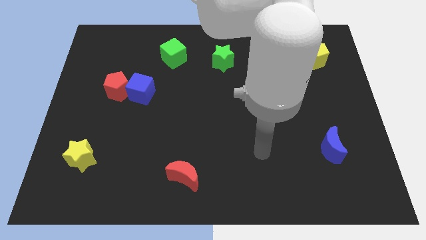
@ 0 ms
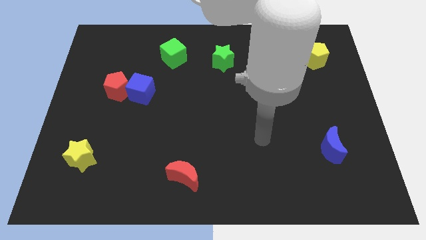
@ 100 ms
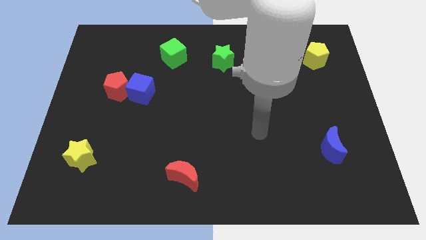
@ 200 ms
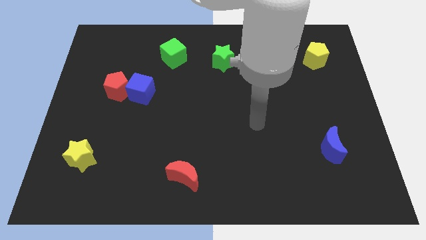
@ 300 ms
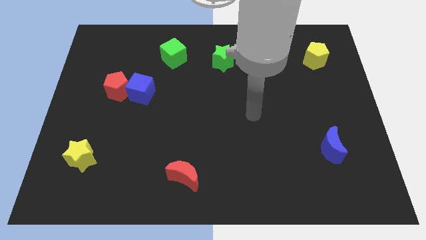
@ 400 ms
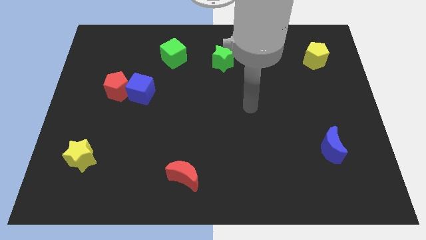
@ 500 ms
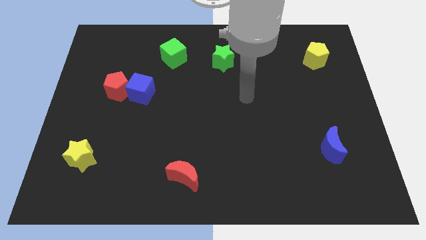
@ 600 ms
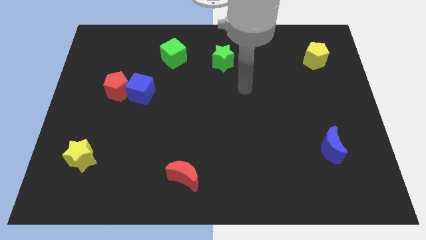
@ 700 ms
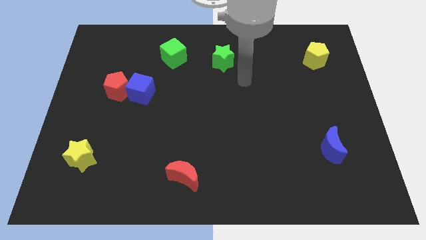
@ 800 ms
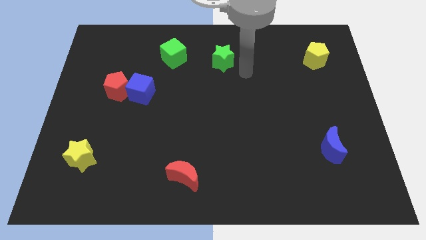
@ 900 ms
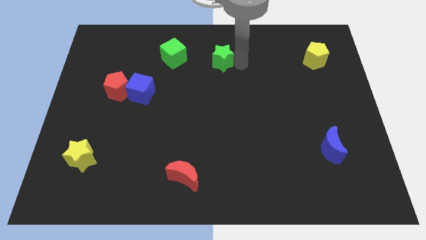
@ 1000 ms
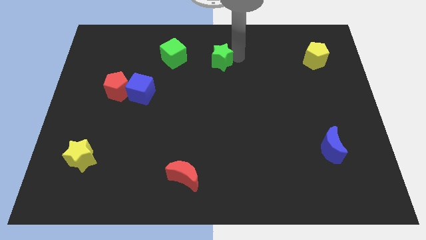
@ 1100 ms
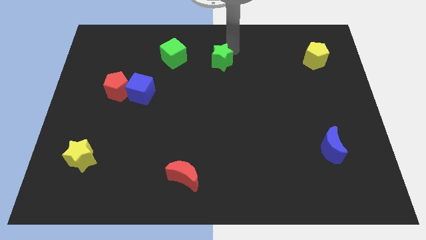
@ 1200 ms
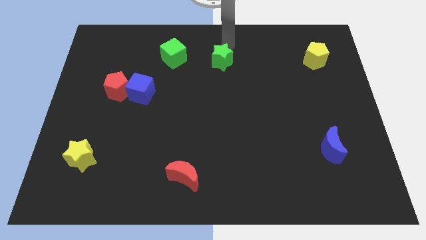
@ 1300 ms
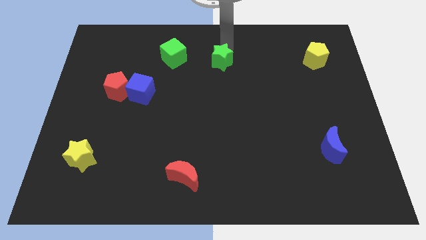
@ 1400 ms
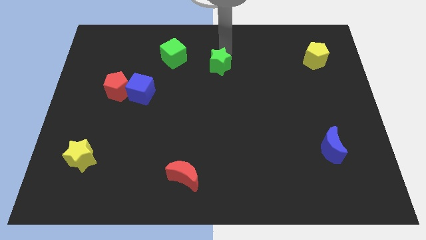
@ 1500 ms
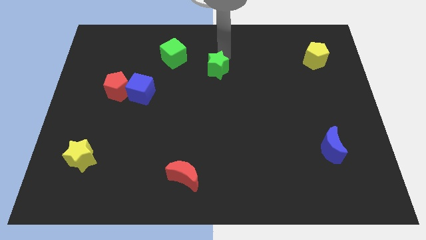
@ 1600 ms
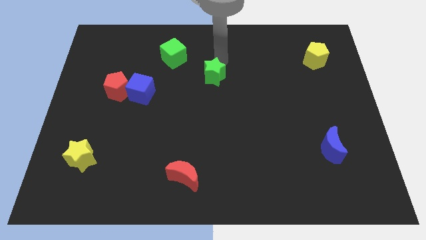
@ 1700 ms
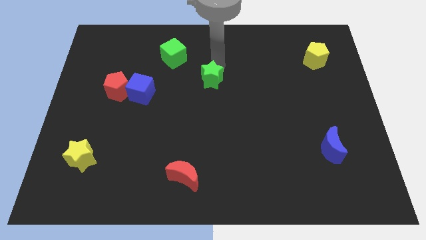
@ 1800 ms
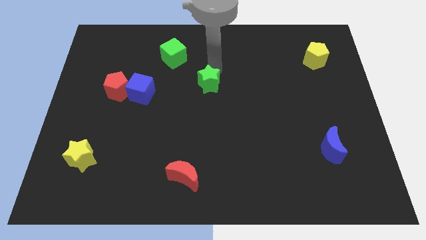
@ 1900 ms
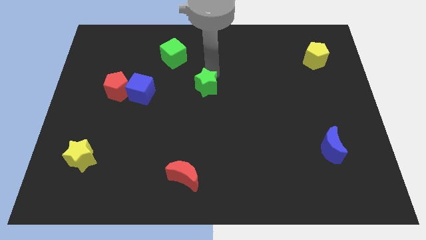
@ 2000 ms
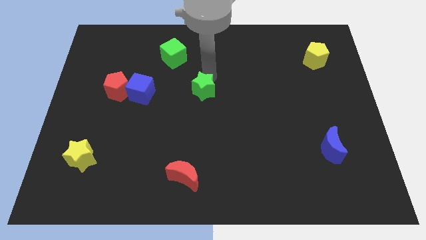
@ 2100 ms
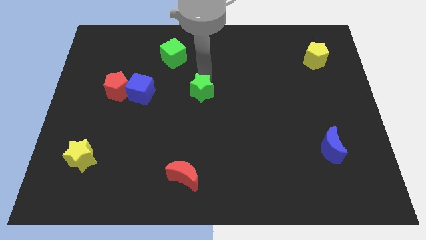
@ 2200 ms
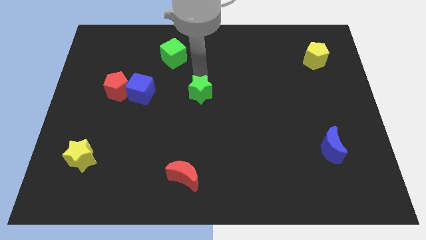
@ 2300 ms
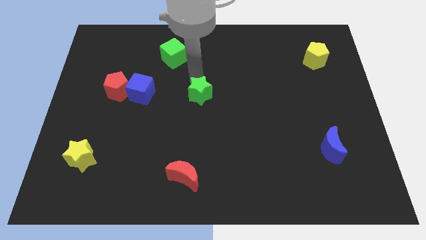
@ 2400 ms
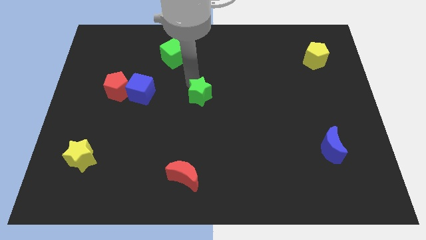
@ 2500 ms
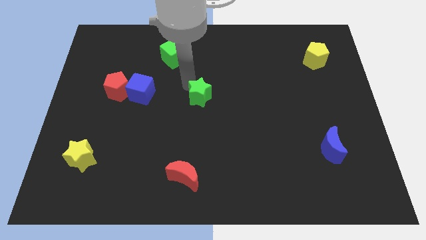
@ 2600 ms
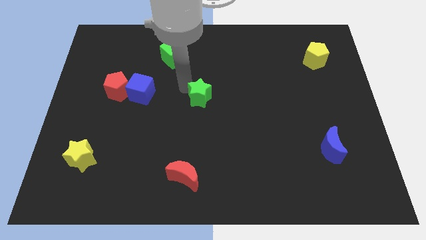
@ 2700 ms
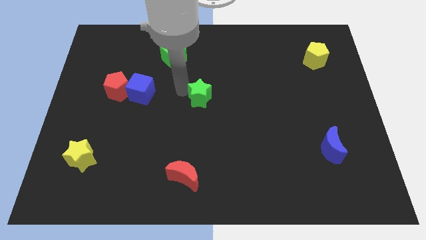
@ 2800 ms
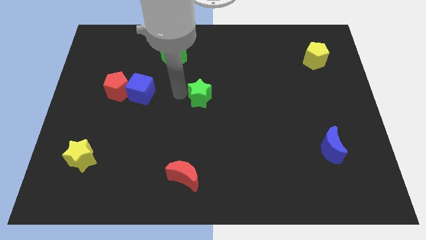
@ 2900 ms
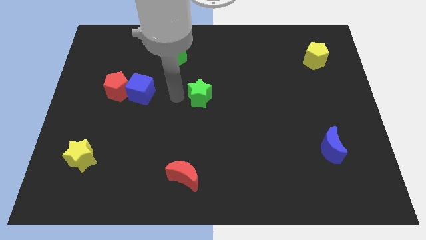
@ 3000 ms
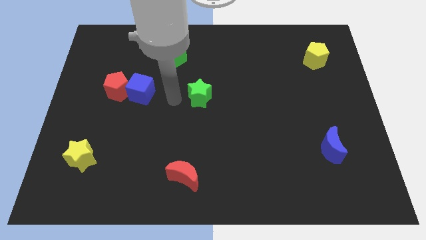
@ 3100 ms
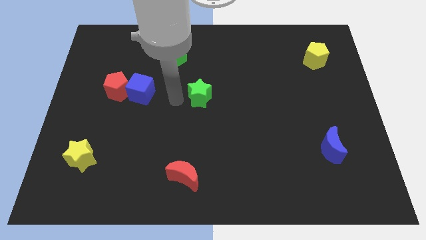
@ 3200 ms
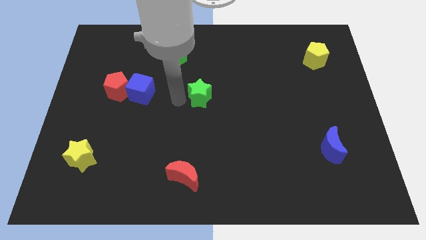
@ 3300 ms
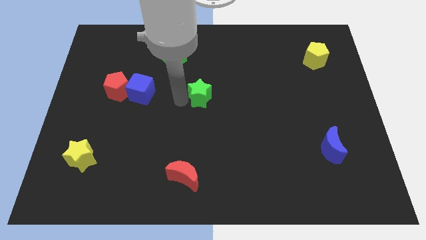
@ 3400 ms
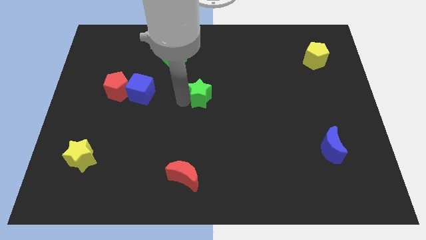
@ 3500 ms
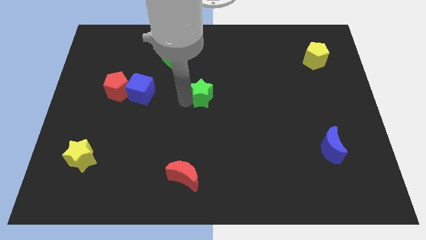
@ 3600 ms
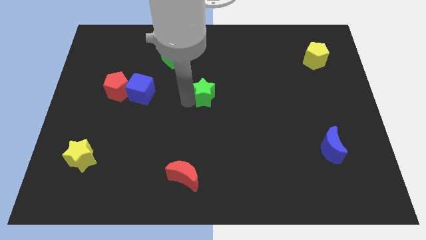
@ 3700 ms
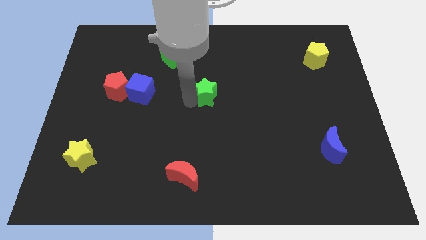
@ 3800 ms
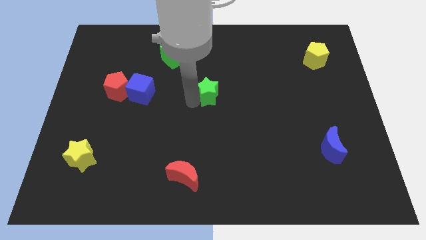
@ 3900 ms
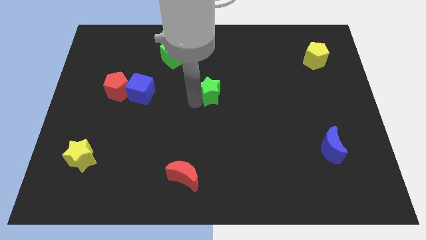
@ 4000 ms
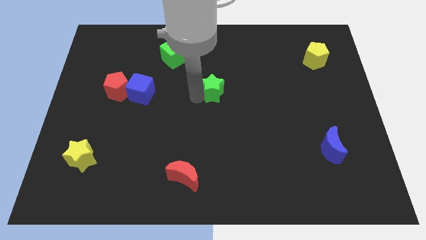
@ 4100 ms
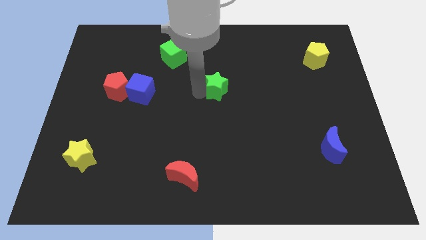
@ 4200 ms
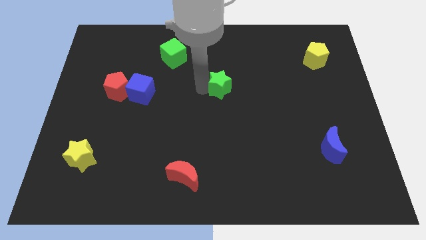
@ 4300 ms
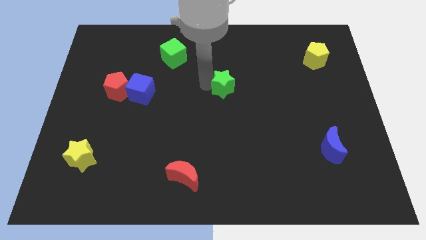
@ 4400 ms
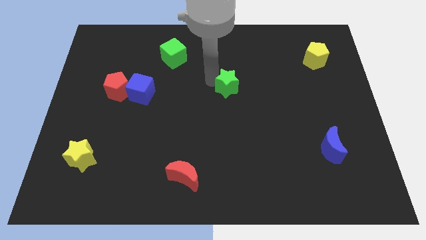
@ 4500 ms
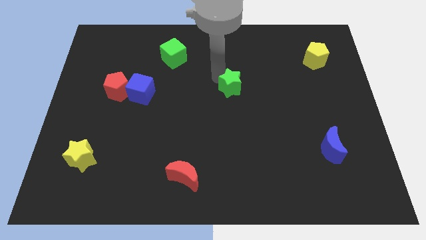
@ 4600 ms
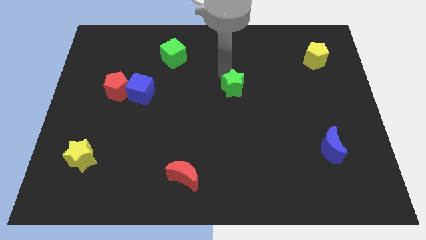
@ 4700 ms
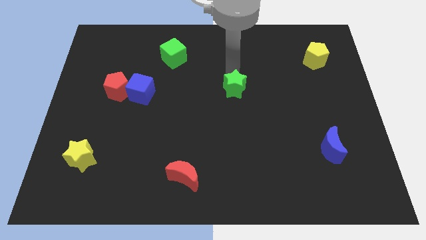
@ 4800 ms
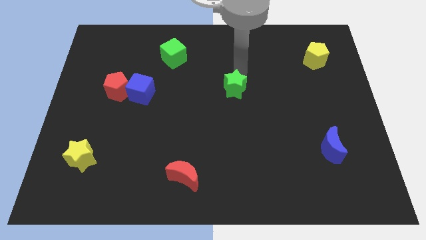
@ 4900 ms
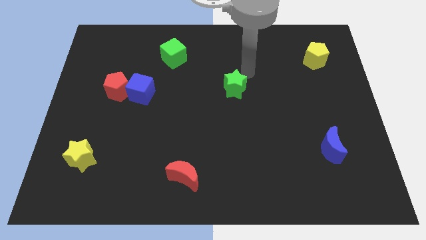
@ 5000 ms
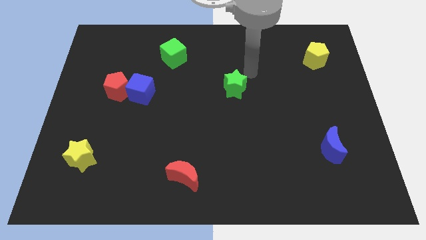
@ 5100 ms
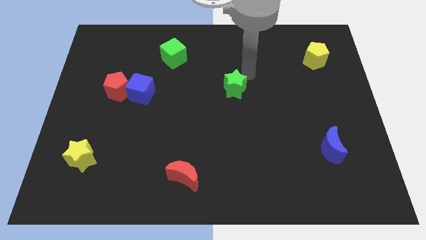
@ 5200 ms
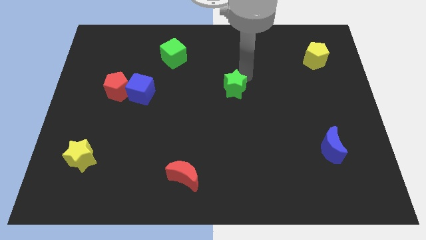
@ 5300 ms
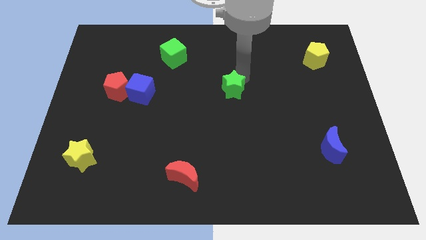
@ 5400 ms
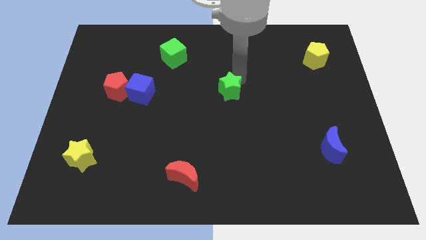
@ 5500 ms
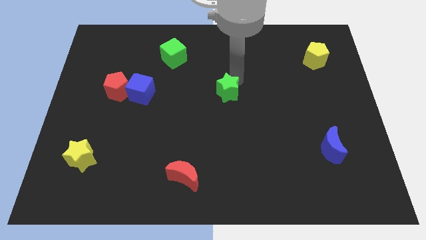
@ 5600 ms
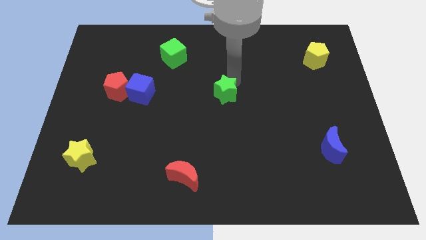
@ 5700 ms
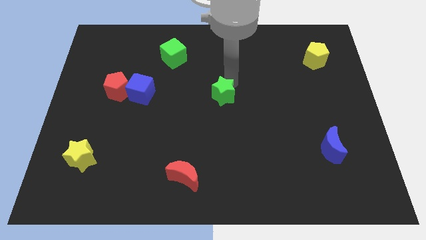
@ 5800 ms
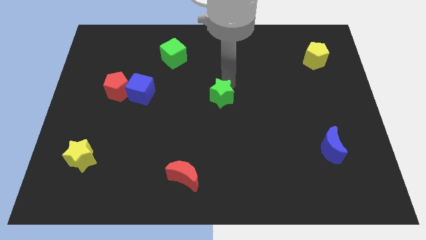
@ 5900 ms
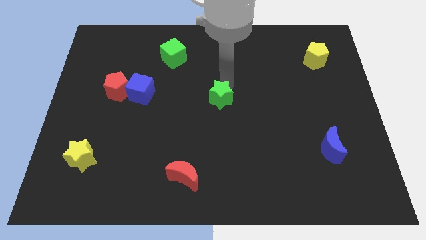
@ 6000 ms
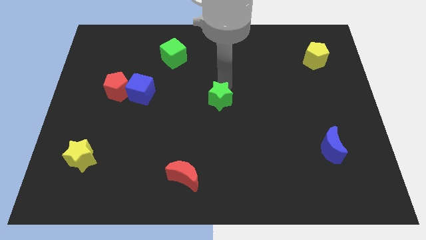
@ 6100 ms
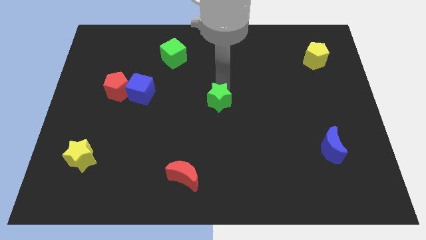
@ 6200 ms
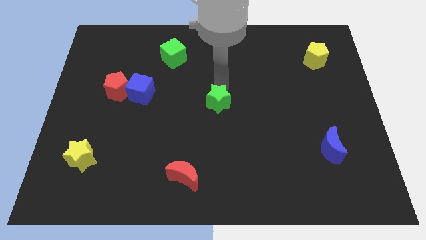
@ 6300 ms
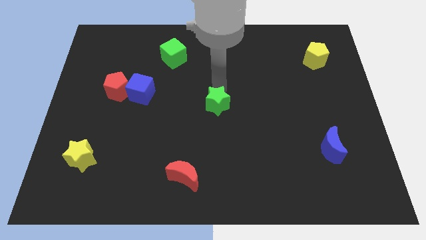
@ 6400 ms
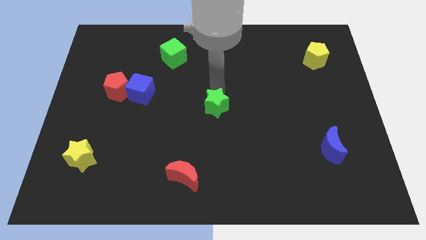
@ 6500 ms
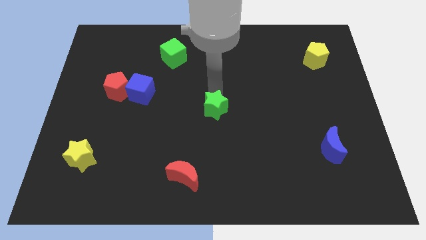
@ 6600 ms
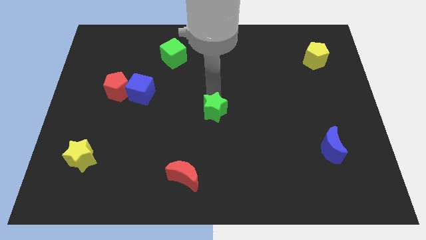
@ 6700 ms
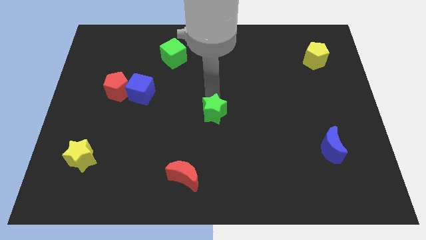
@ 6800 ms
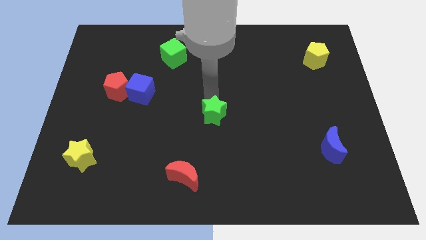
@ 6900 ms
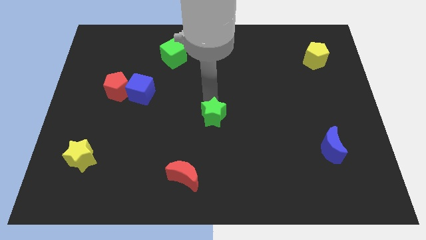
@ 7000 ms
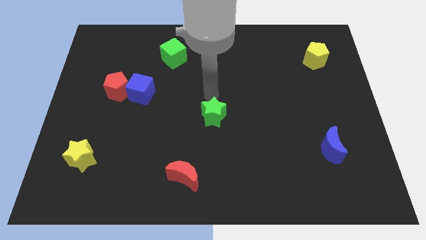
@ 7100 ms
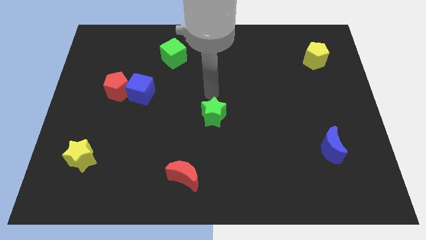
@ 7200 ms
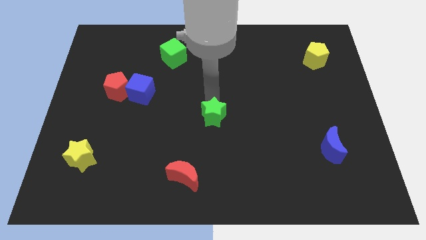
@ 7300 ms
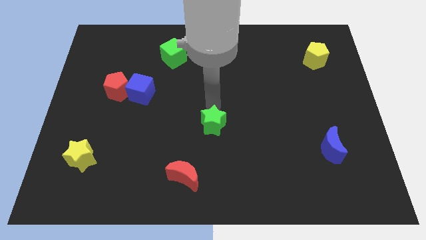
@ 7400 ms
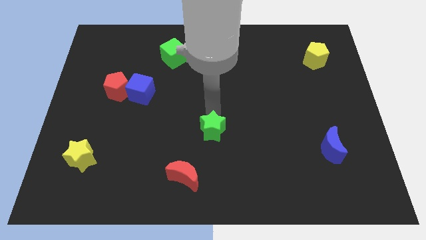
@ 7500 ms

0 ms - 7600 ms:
move the green star down

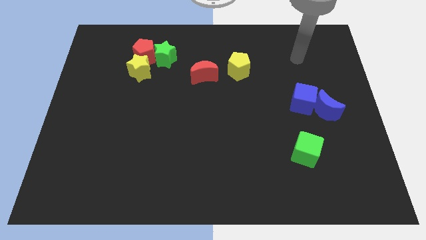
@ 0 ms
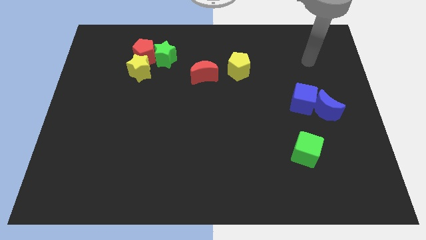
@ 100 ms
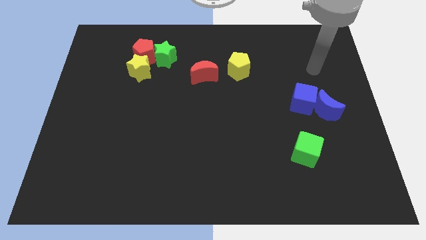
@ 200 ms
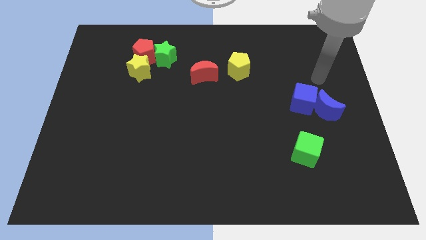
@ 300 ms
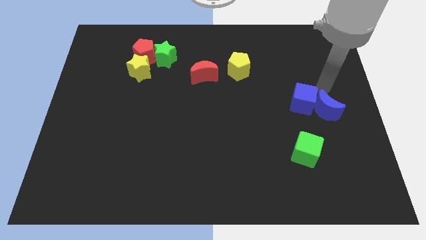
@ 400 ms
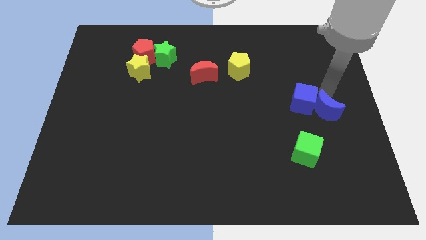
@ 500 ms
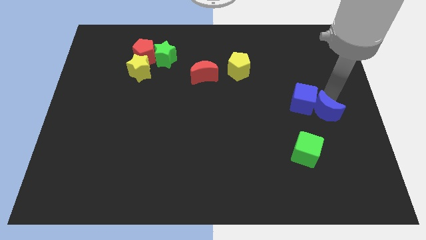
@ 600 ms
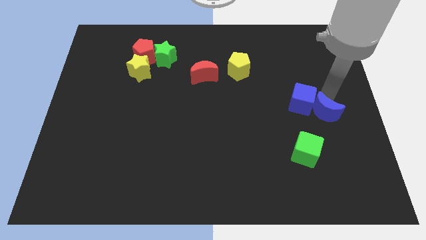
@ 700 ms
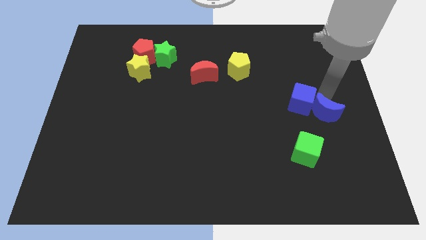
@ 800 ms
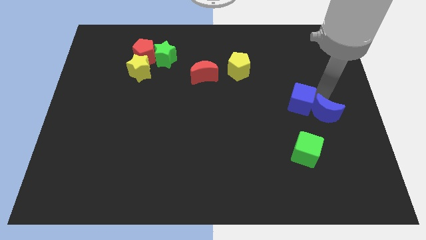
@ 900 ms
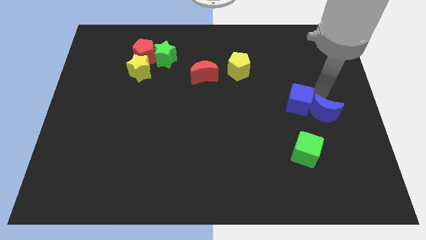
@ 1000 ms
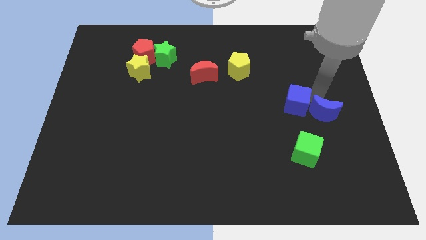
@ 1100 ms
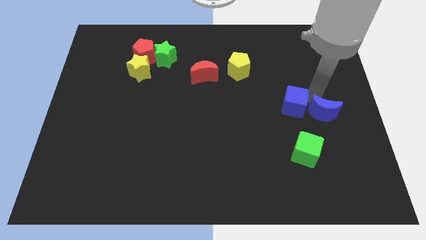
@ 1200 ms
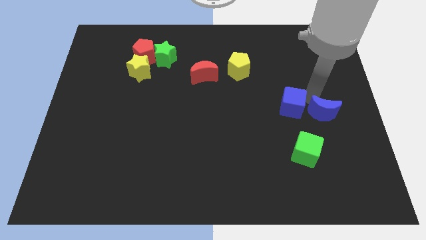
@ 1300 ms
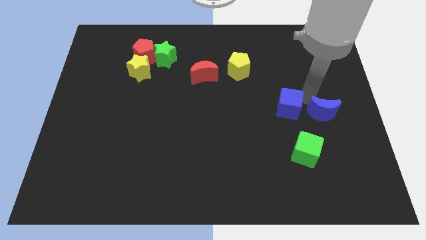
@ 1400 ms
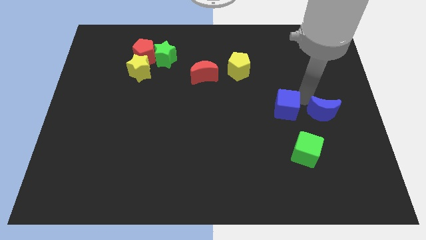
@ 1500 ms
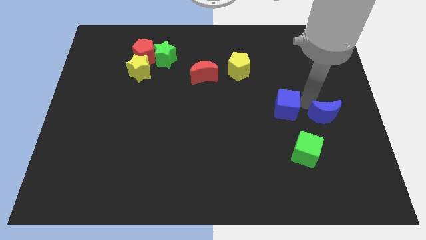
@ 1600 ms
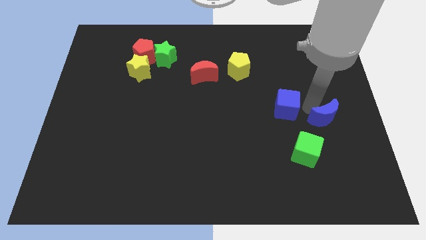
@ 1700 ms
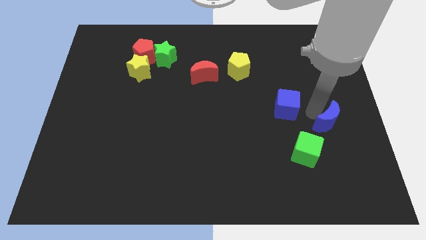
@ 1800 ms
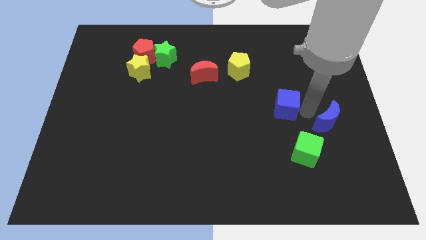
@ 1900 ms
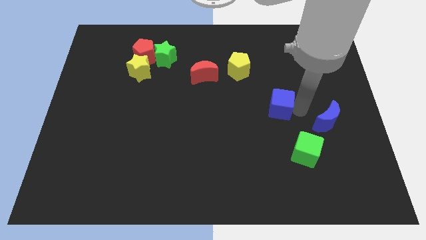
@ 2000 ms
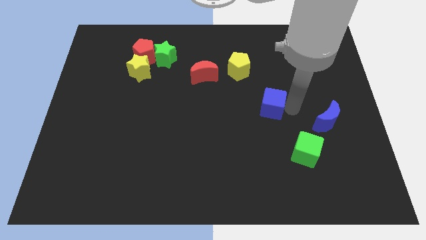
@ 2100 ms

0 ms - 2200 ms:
push the blue cube a little bit left
